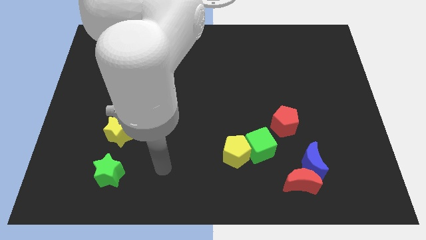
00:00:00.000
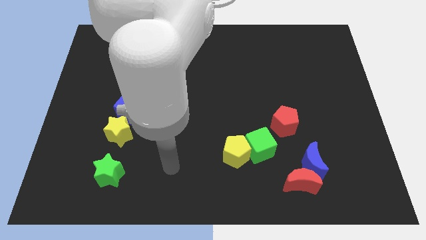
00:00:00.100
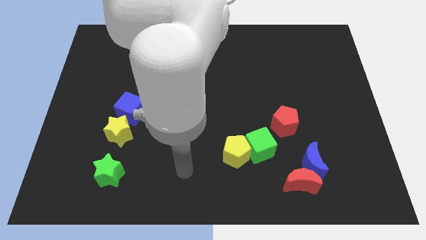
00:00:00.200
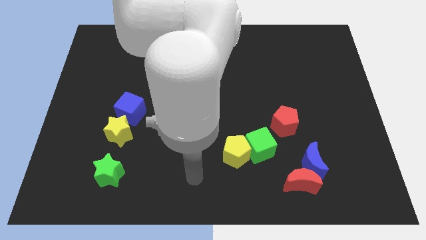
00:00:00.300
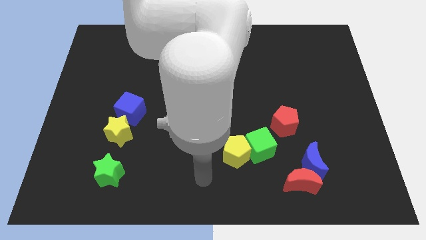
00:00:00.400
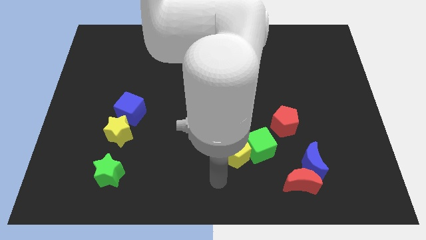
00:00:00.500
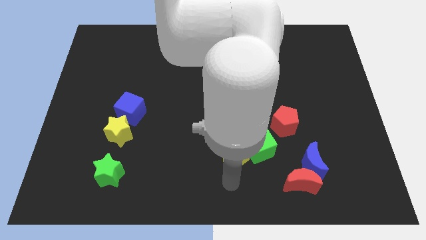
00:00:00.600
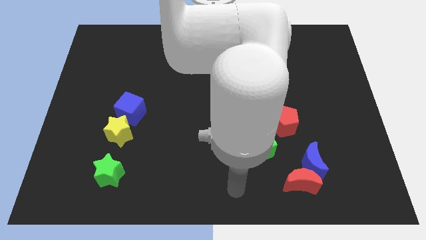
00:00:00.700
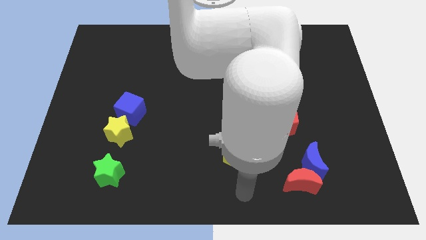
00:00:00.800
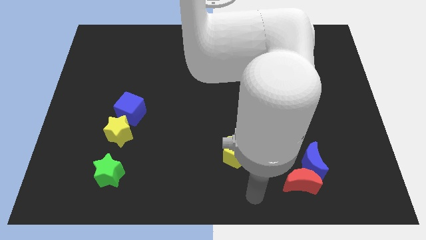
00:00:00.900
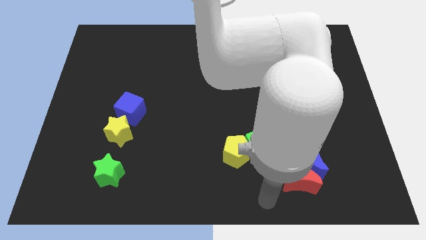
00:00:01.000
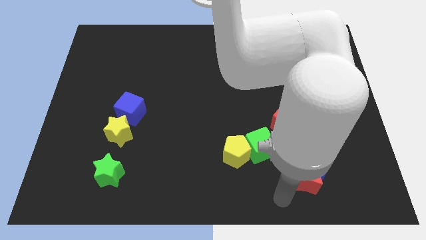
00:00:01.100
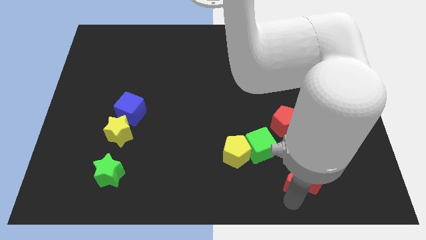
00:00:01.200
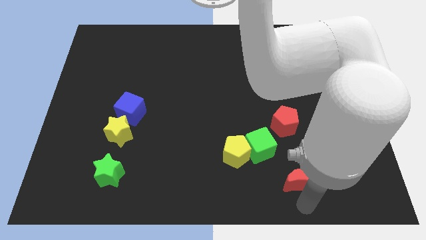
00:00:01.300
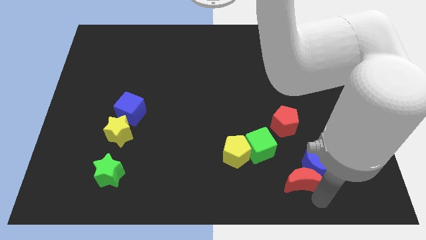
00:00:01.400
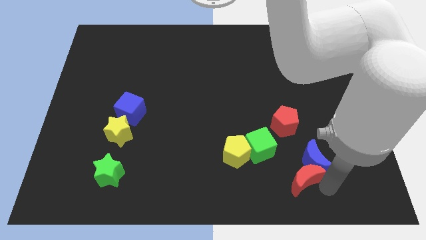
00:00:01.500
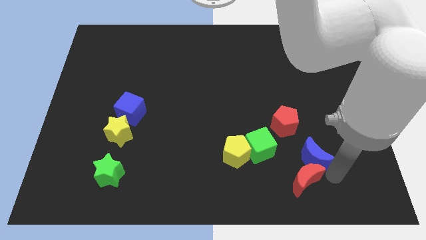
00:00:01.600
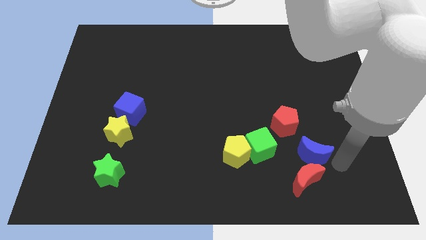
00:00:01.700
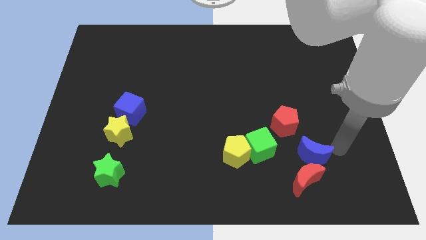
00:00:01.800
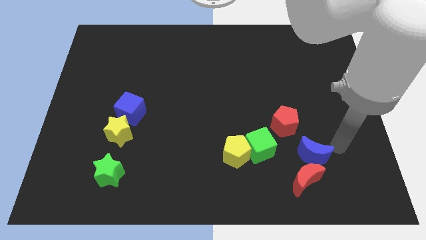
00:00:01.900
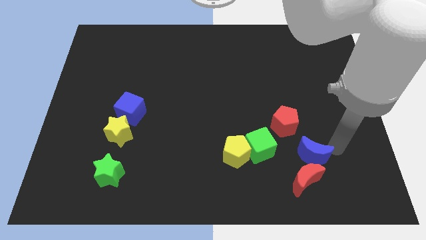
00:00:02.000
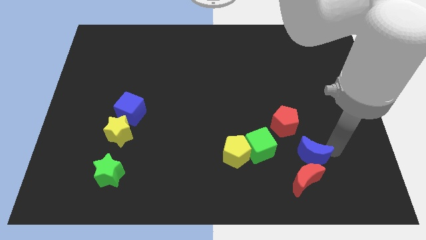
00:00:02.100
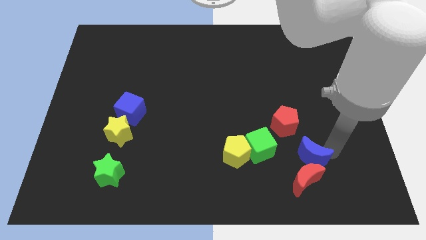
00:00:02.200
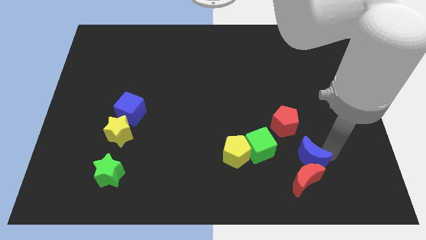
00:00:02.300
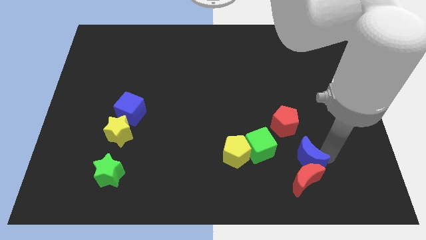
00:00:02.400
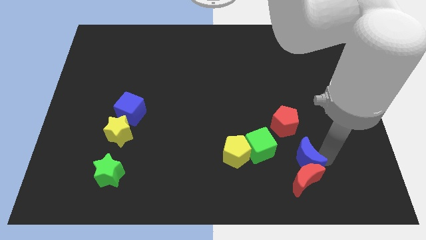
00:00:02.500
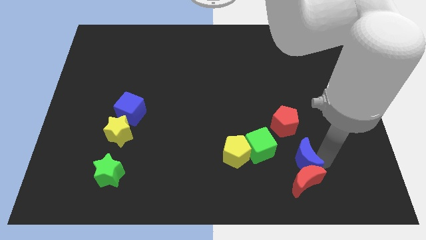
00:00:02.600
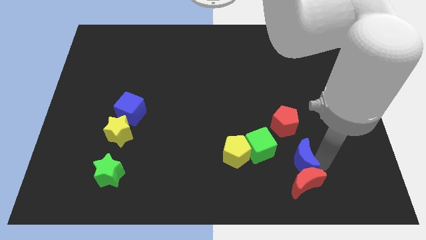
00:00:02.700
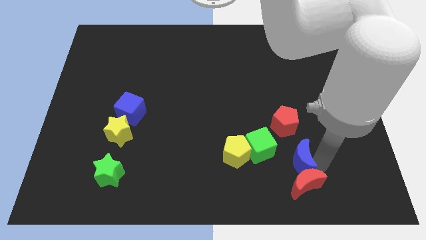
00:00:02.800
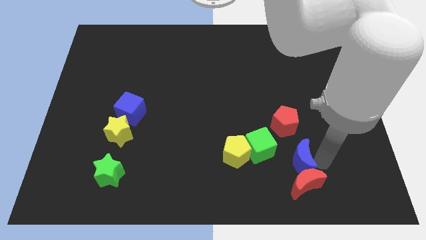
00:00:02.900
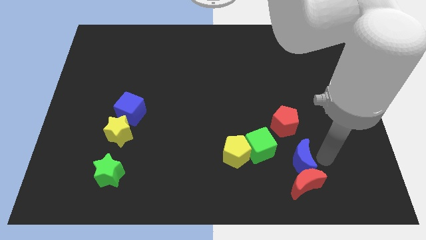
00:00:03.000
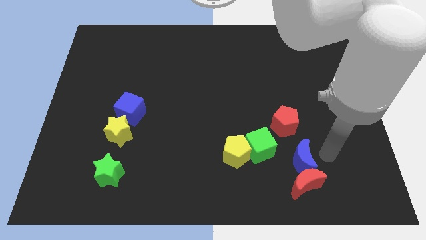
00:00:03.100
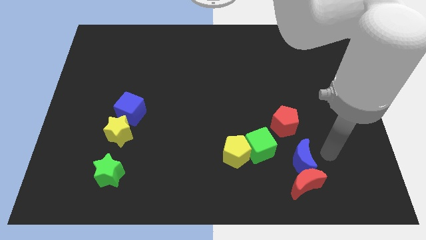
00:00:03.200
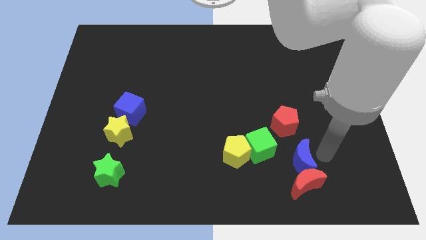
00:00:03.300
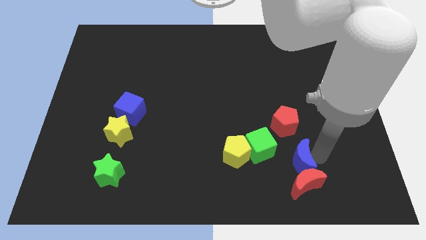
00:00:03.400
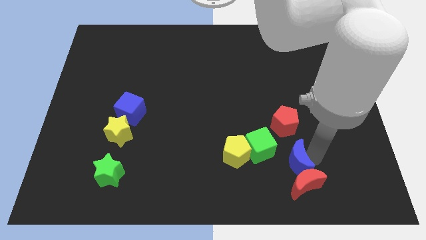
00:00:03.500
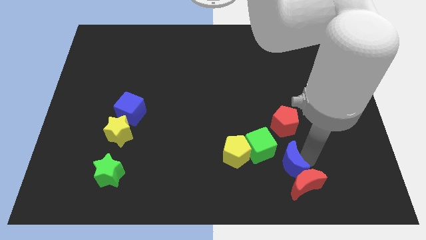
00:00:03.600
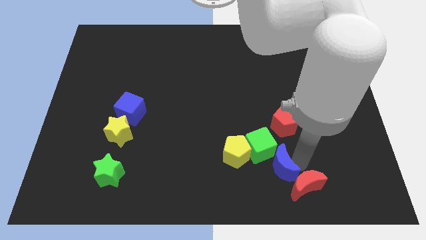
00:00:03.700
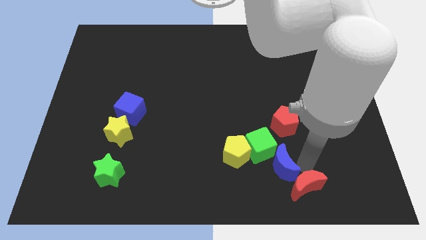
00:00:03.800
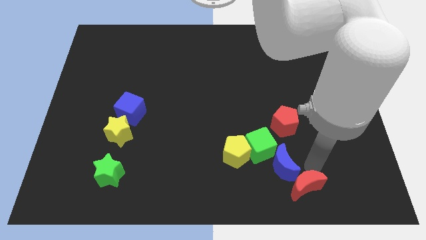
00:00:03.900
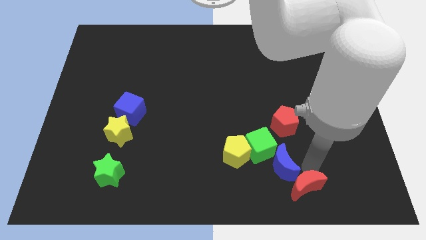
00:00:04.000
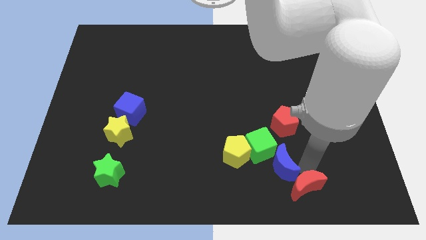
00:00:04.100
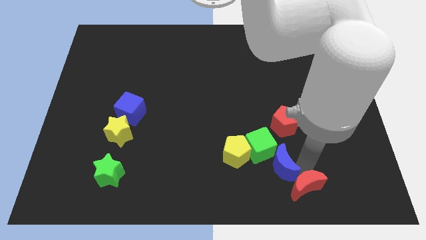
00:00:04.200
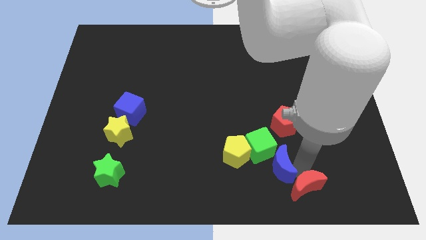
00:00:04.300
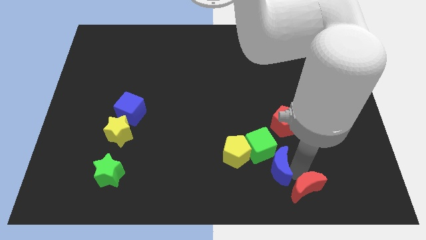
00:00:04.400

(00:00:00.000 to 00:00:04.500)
slide the blue moon to the left slightly

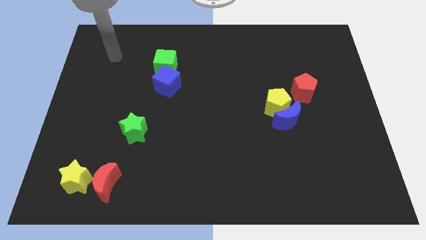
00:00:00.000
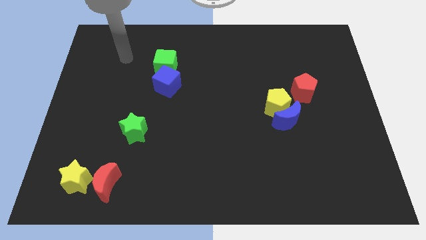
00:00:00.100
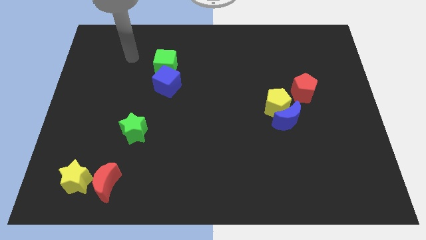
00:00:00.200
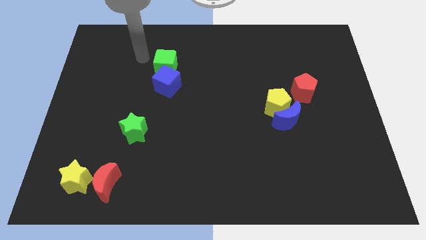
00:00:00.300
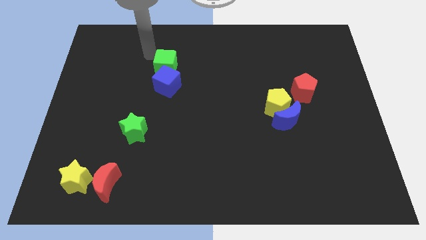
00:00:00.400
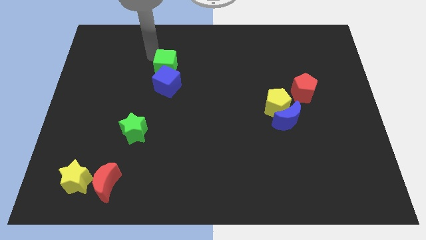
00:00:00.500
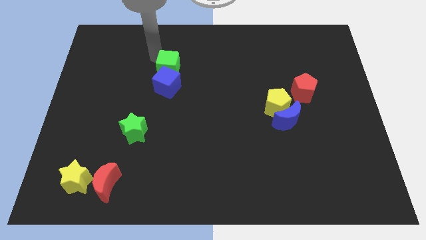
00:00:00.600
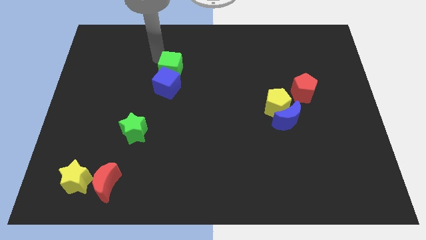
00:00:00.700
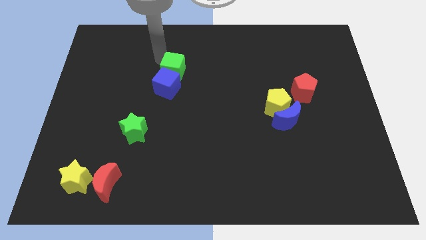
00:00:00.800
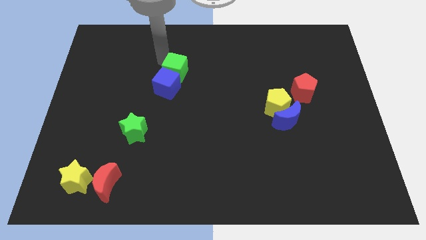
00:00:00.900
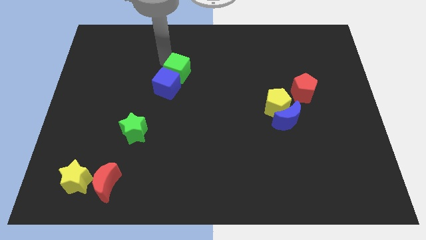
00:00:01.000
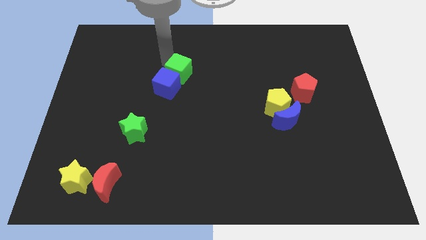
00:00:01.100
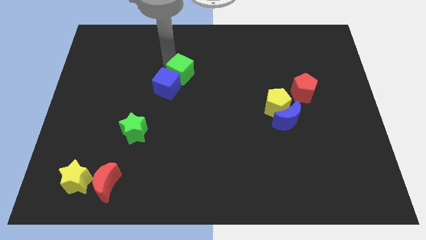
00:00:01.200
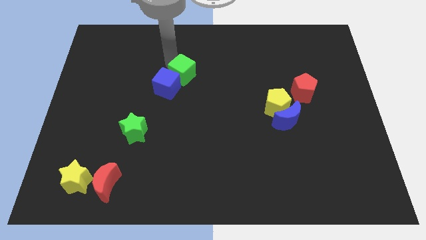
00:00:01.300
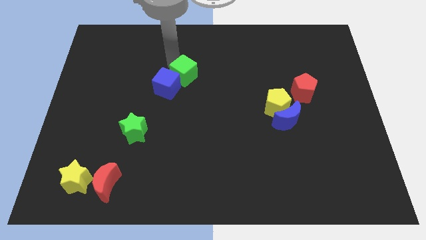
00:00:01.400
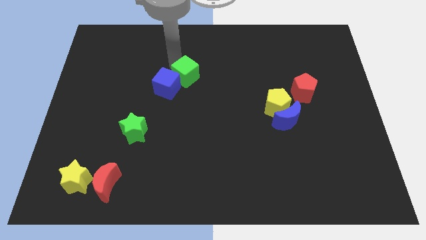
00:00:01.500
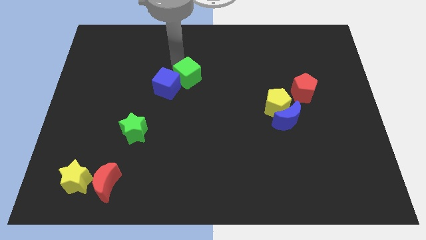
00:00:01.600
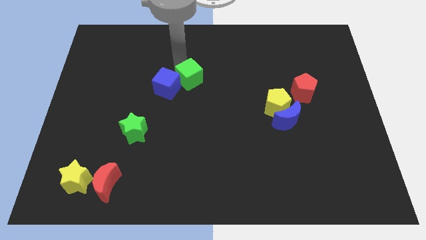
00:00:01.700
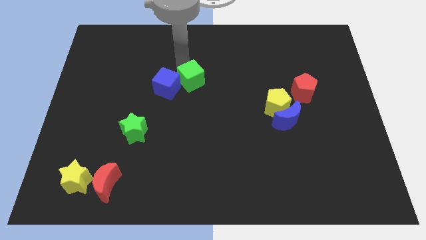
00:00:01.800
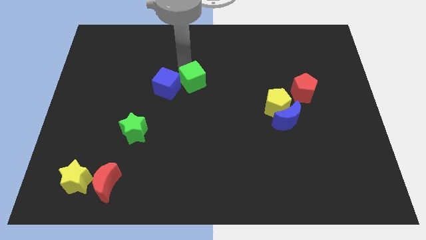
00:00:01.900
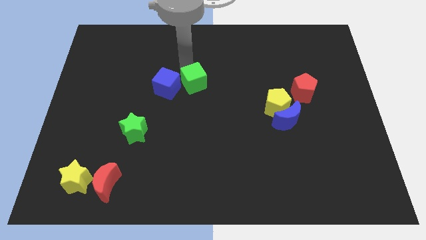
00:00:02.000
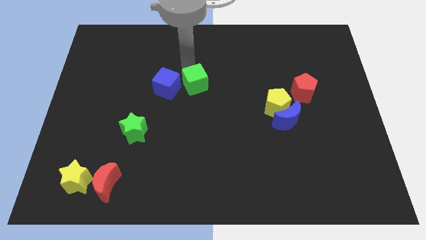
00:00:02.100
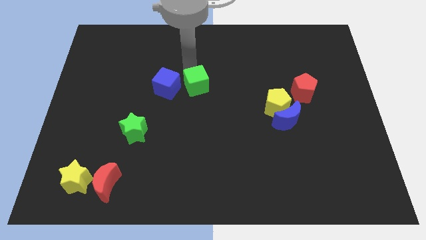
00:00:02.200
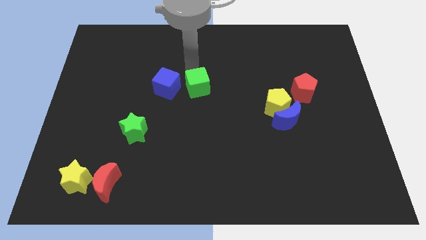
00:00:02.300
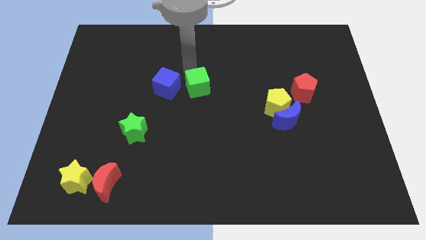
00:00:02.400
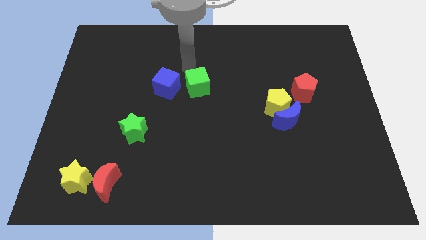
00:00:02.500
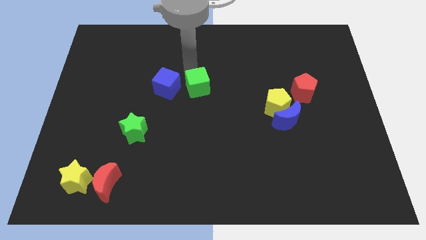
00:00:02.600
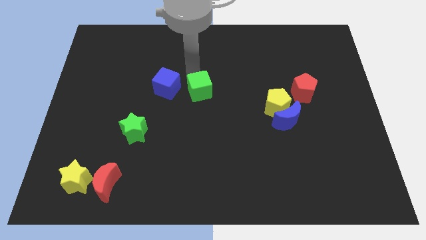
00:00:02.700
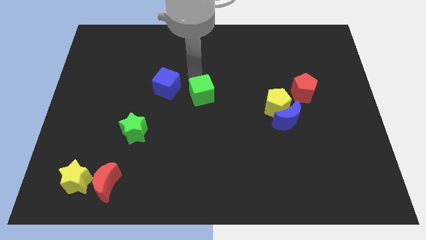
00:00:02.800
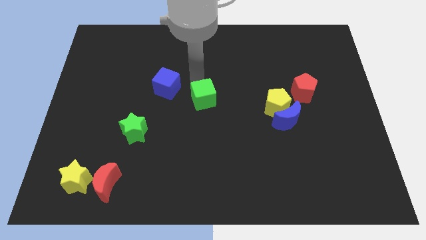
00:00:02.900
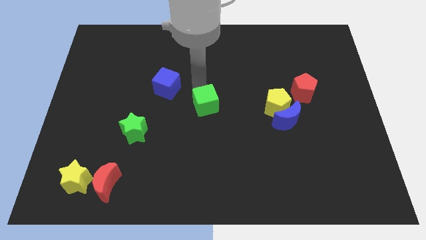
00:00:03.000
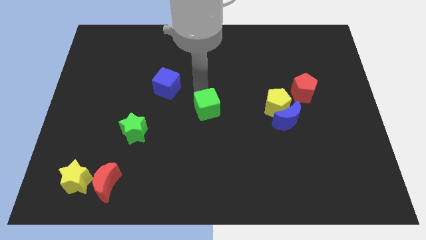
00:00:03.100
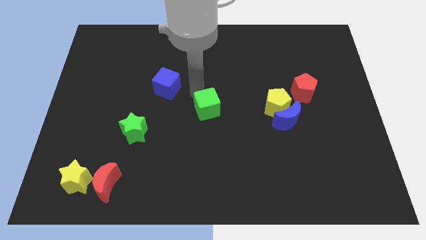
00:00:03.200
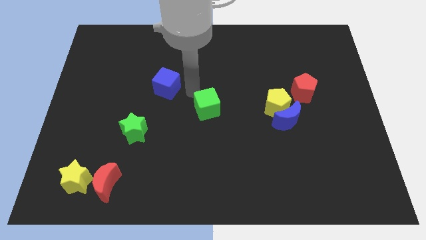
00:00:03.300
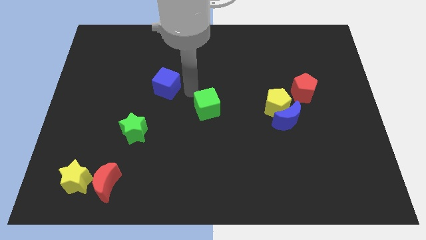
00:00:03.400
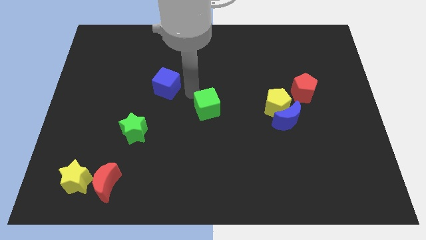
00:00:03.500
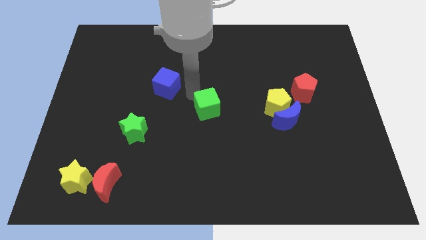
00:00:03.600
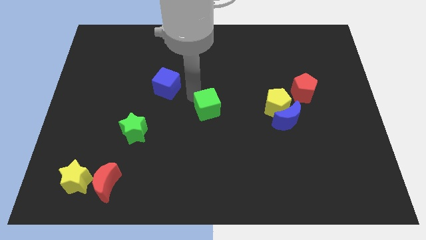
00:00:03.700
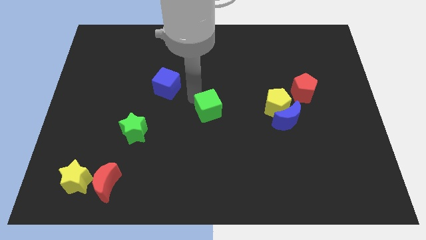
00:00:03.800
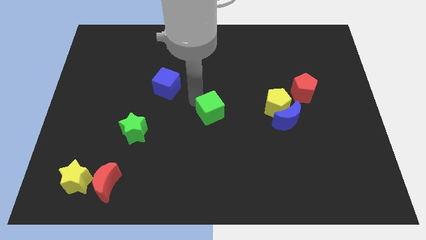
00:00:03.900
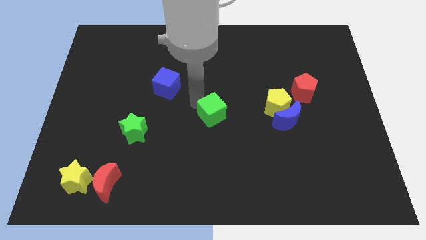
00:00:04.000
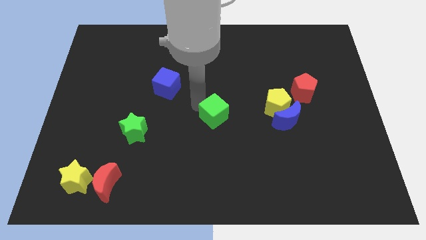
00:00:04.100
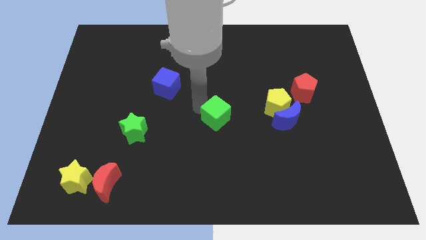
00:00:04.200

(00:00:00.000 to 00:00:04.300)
slide the green cube down and to the right
